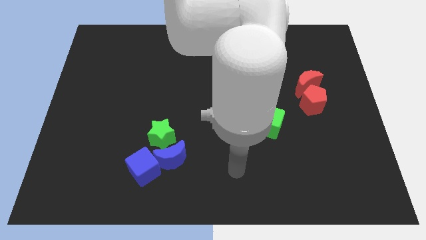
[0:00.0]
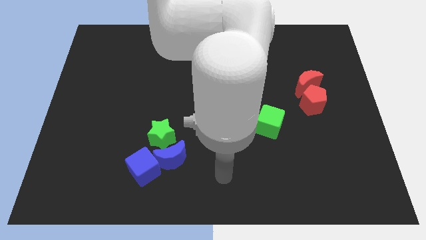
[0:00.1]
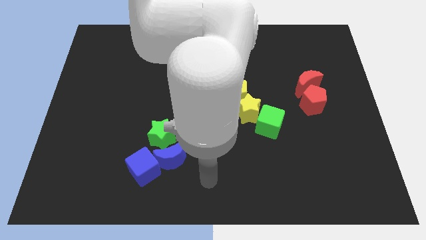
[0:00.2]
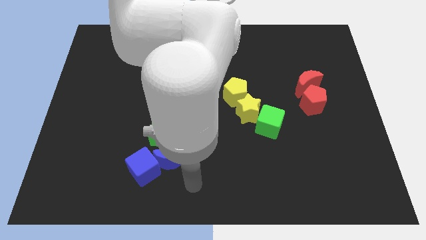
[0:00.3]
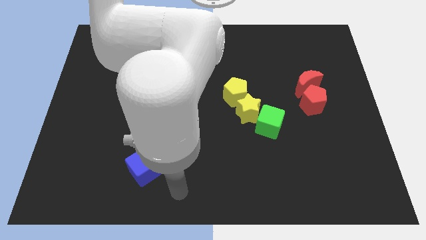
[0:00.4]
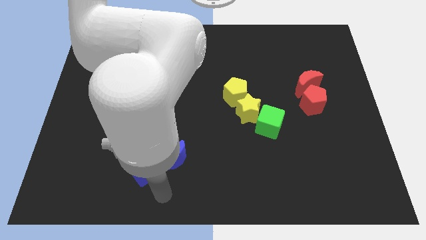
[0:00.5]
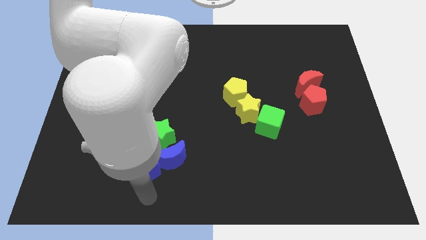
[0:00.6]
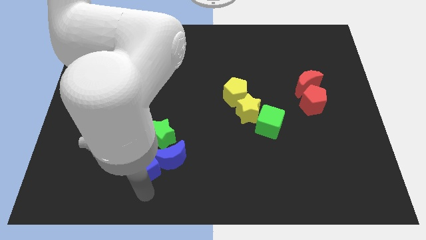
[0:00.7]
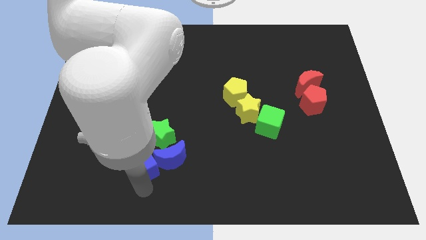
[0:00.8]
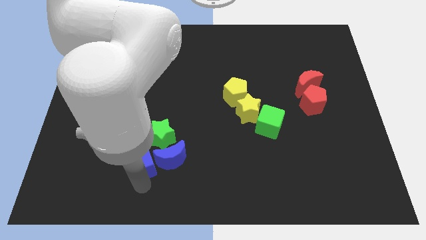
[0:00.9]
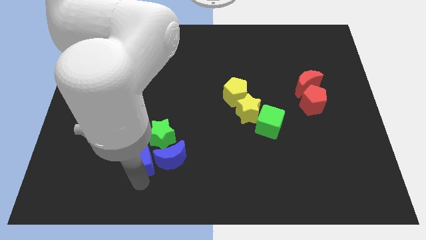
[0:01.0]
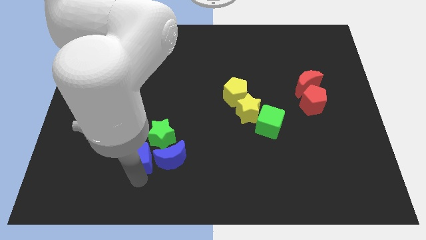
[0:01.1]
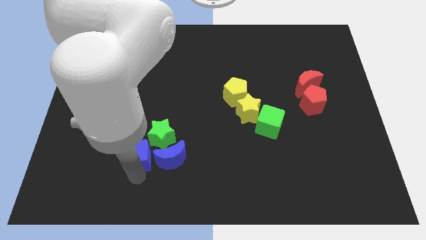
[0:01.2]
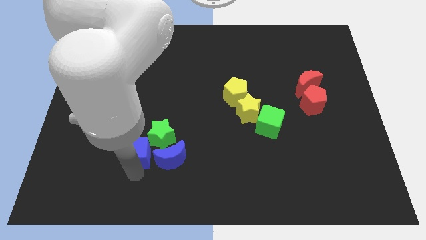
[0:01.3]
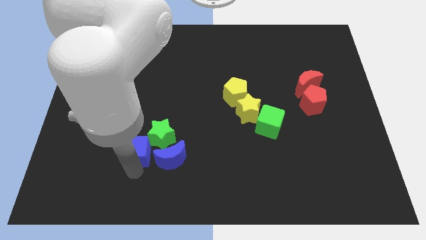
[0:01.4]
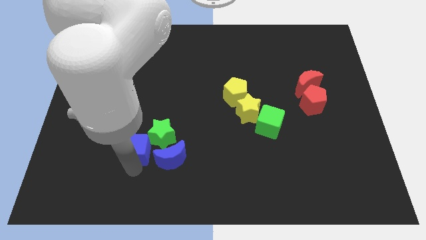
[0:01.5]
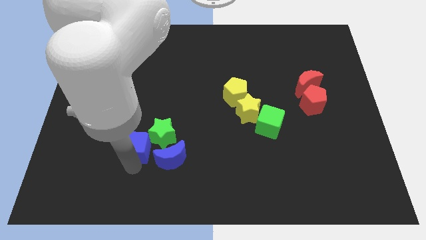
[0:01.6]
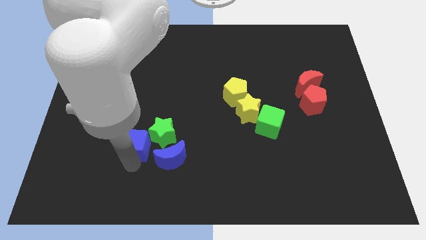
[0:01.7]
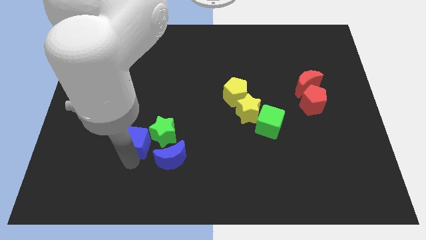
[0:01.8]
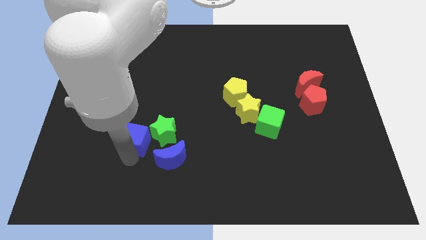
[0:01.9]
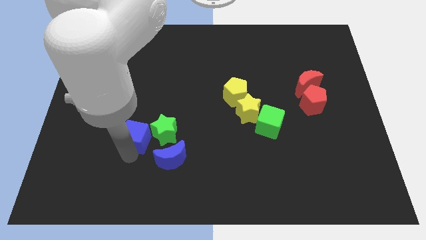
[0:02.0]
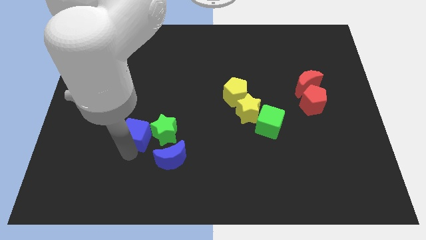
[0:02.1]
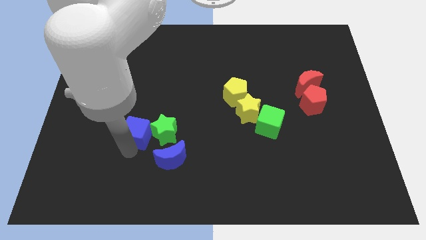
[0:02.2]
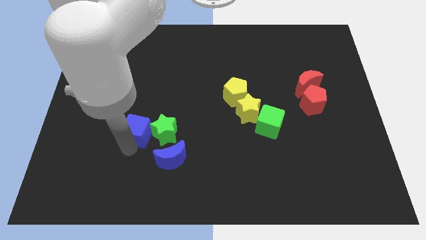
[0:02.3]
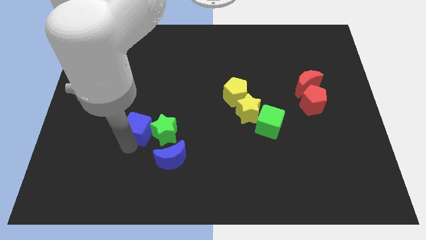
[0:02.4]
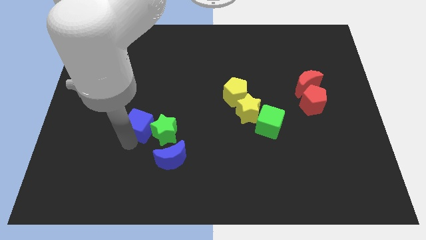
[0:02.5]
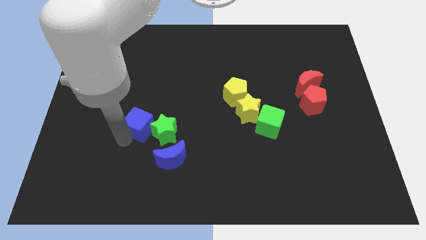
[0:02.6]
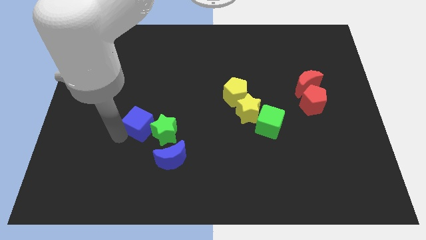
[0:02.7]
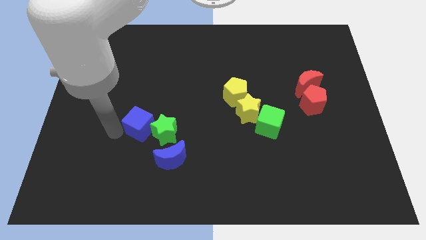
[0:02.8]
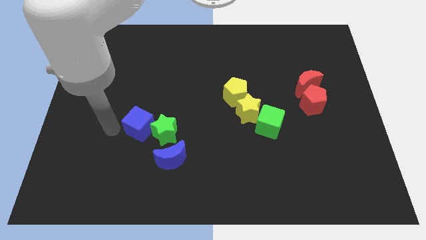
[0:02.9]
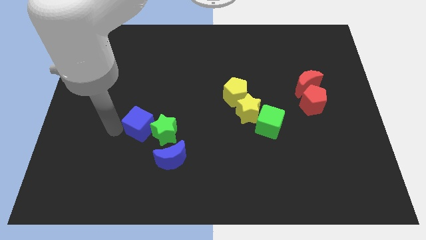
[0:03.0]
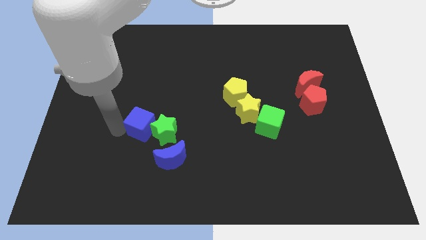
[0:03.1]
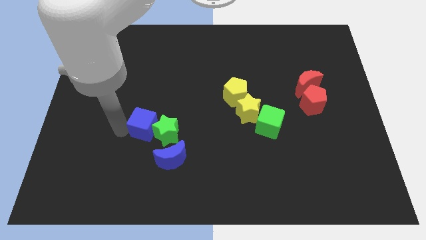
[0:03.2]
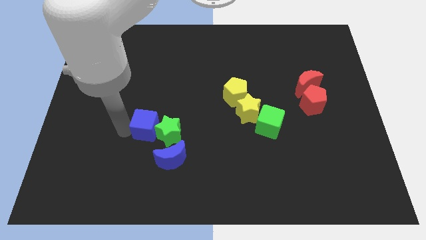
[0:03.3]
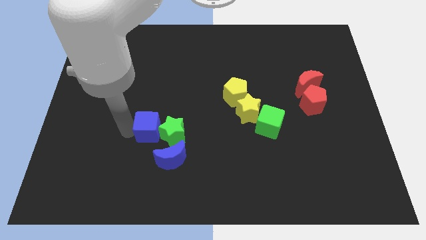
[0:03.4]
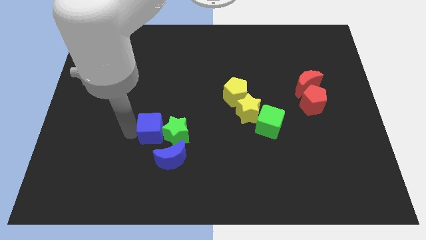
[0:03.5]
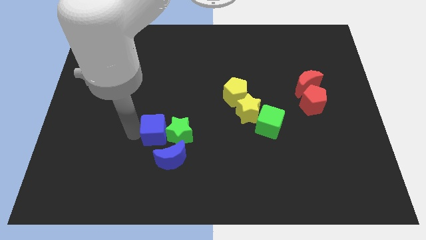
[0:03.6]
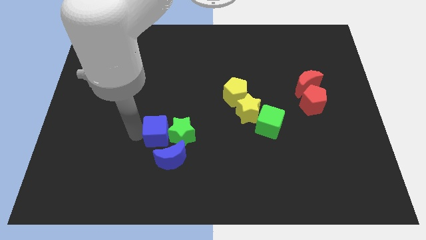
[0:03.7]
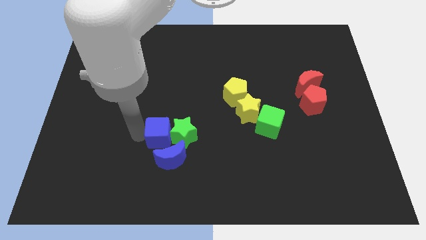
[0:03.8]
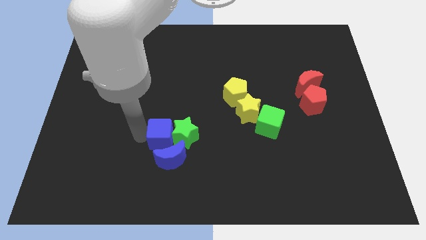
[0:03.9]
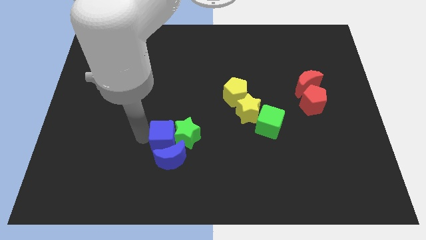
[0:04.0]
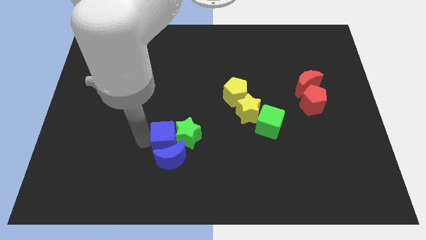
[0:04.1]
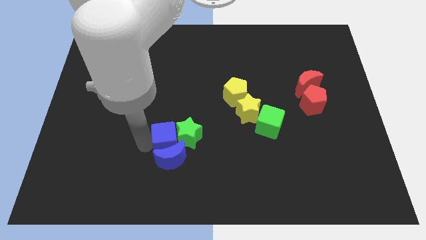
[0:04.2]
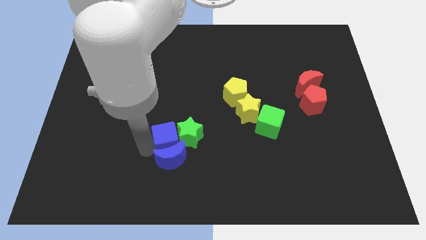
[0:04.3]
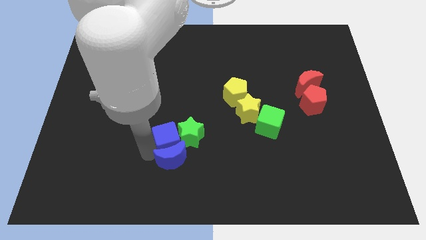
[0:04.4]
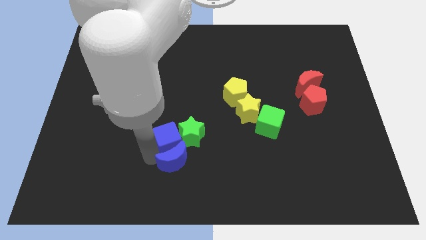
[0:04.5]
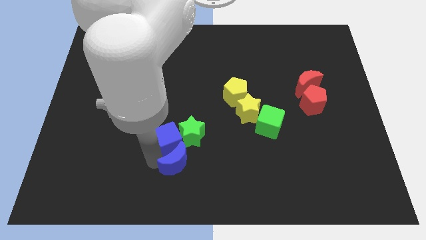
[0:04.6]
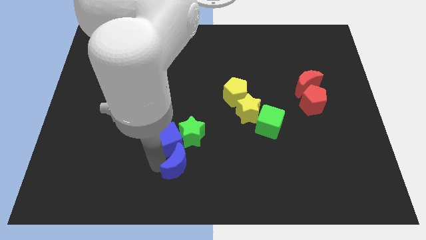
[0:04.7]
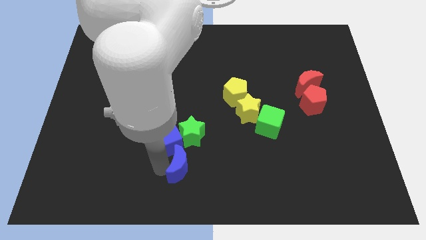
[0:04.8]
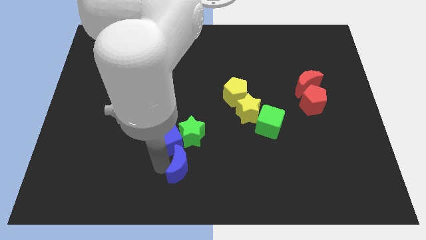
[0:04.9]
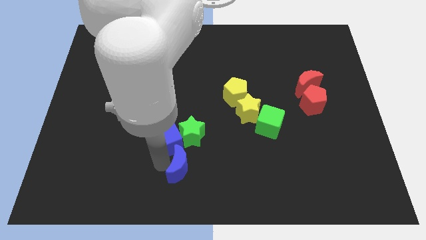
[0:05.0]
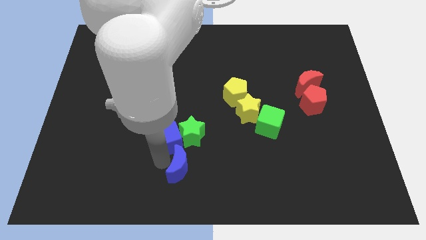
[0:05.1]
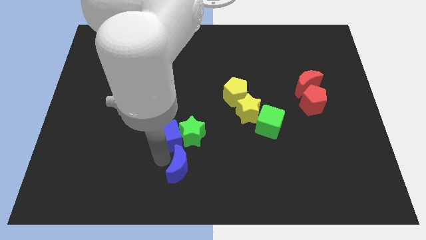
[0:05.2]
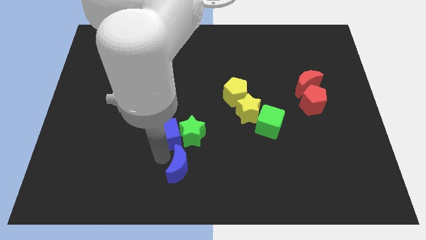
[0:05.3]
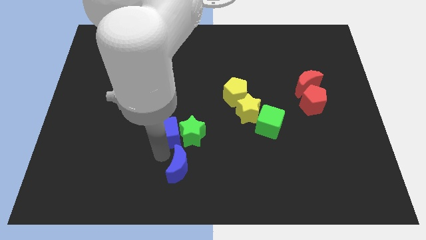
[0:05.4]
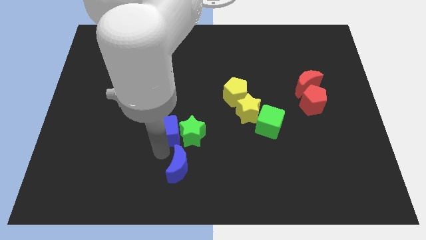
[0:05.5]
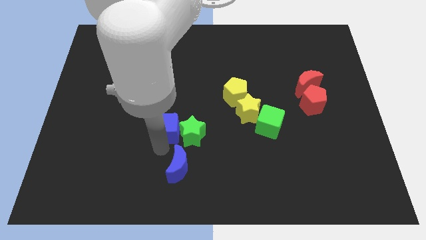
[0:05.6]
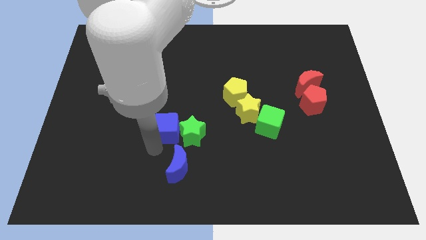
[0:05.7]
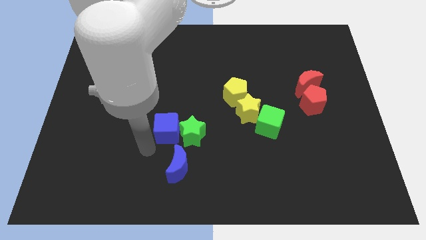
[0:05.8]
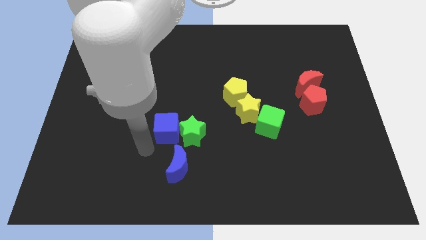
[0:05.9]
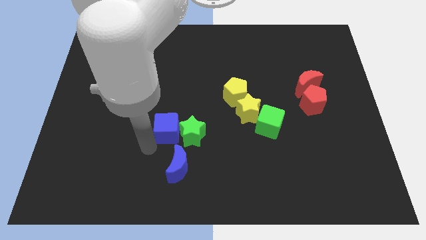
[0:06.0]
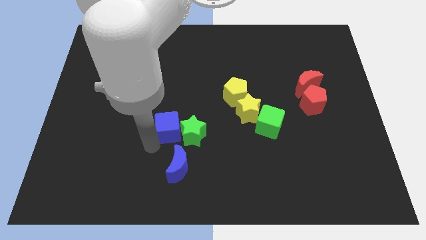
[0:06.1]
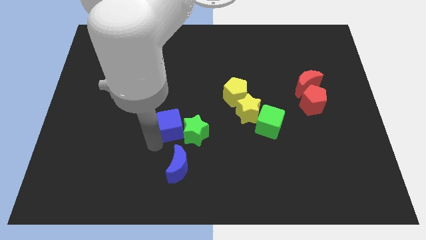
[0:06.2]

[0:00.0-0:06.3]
slide the blue cube to the center of the board
